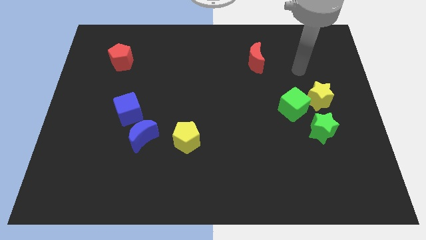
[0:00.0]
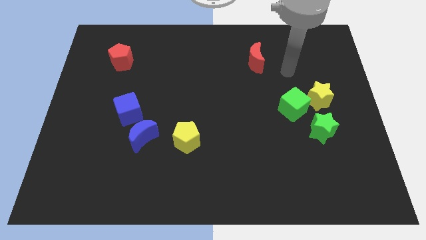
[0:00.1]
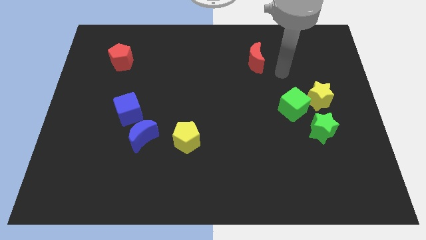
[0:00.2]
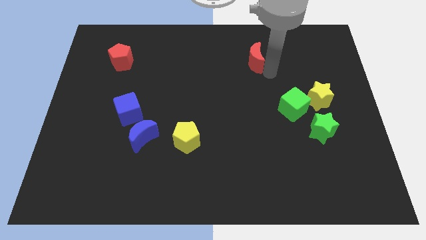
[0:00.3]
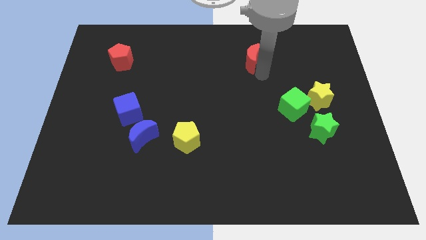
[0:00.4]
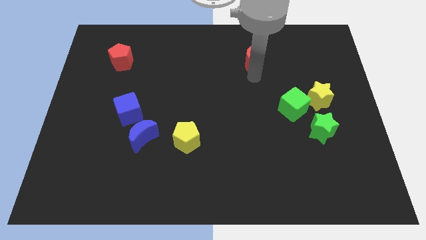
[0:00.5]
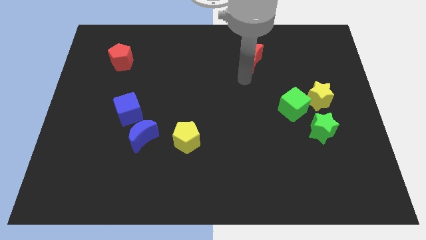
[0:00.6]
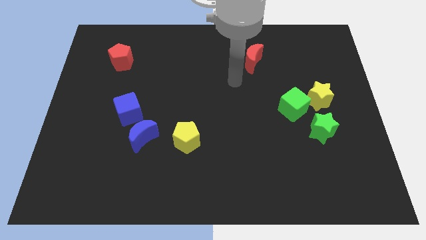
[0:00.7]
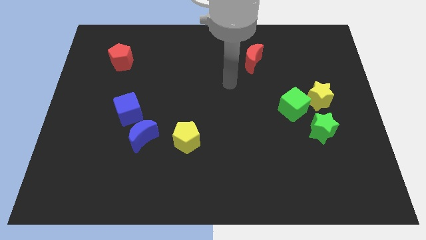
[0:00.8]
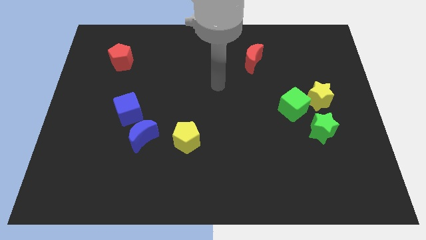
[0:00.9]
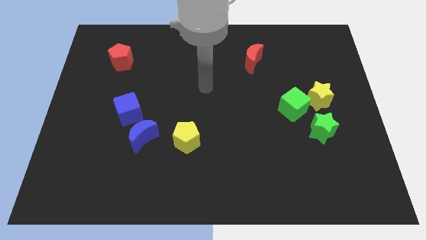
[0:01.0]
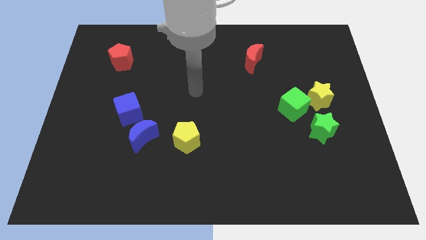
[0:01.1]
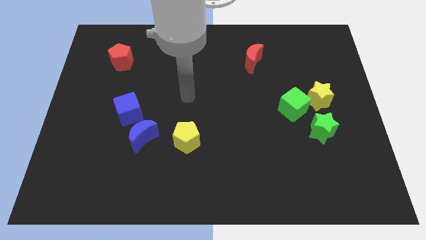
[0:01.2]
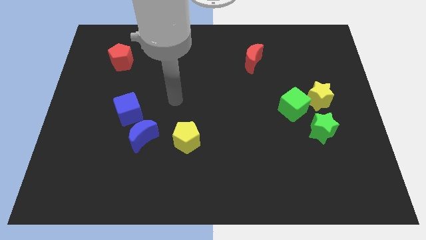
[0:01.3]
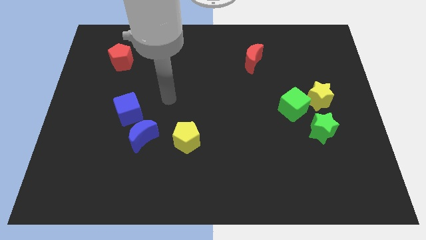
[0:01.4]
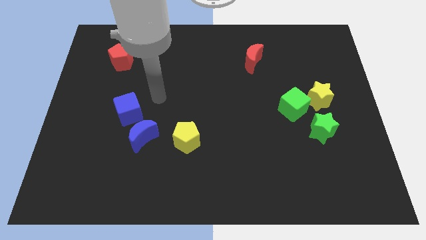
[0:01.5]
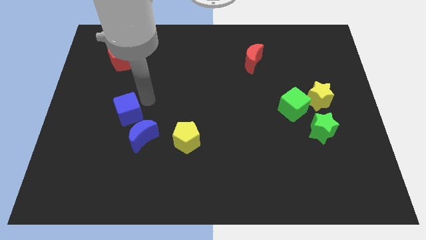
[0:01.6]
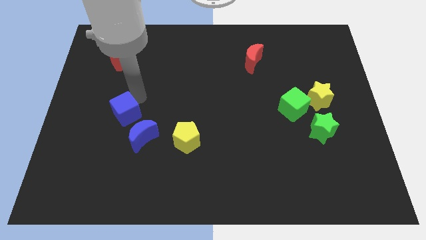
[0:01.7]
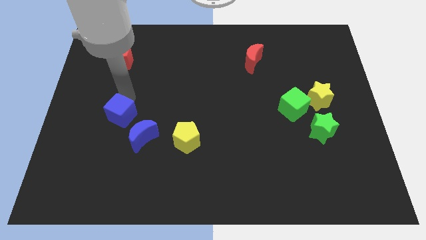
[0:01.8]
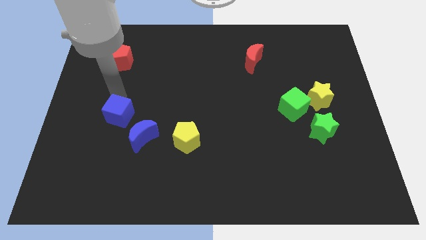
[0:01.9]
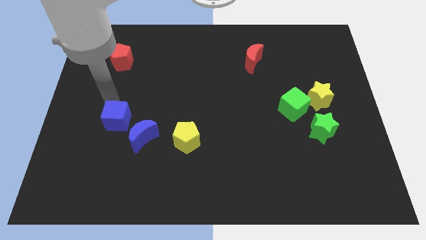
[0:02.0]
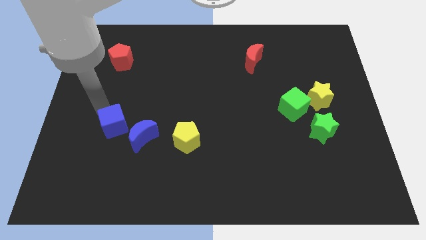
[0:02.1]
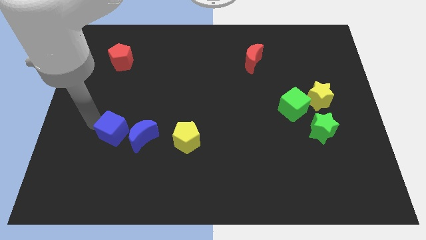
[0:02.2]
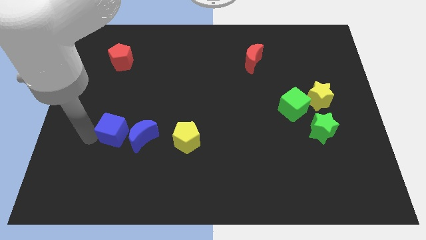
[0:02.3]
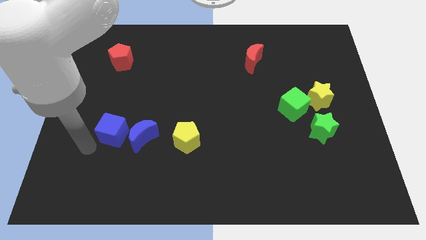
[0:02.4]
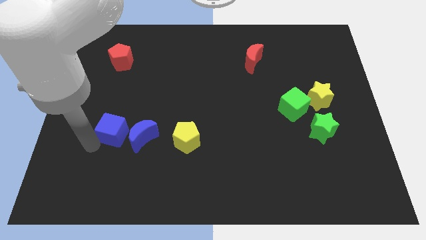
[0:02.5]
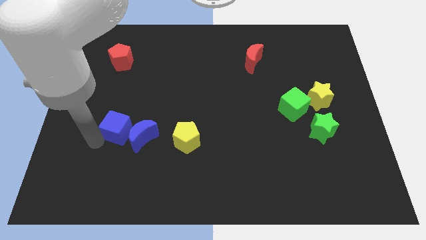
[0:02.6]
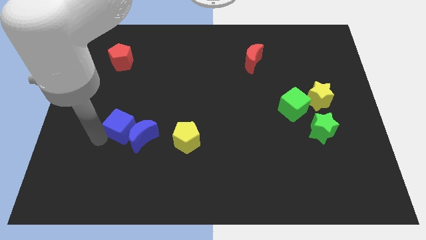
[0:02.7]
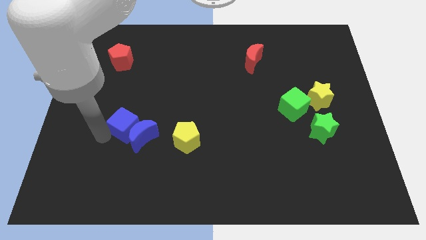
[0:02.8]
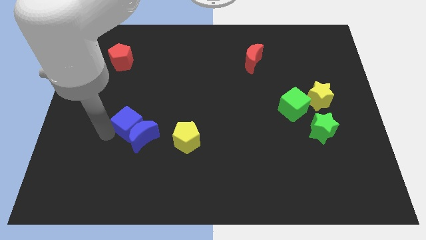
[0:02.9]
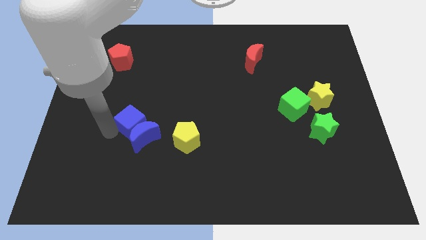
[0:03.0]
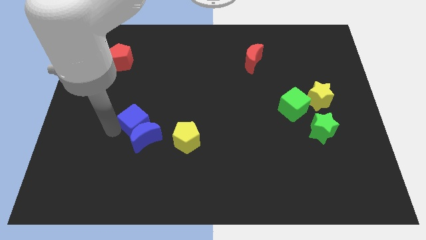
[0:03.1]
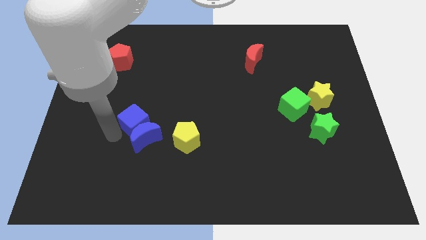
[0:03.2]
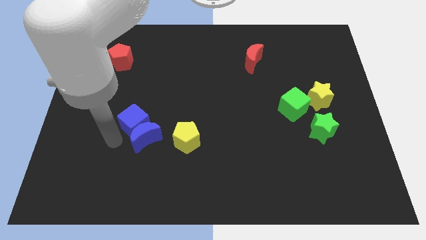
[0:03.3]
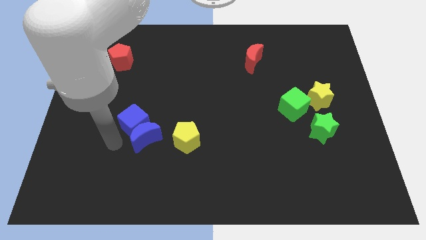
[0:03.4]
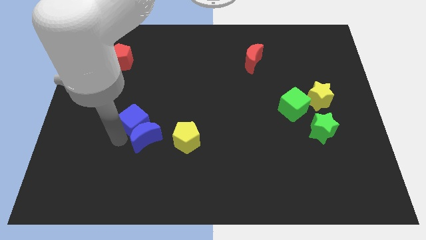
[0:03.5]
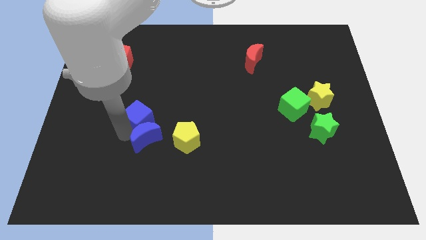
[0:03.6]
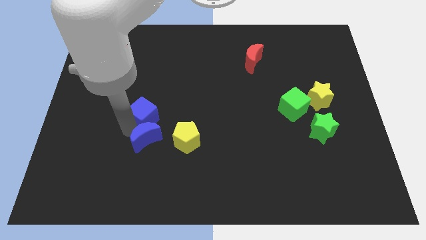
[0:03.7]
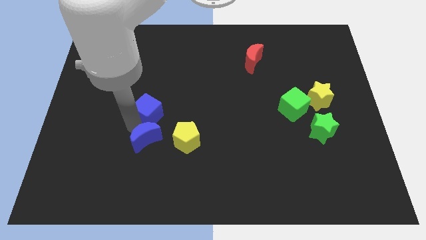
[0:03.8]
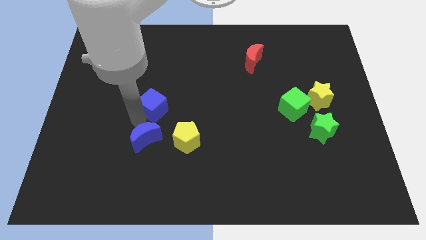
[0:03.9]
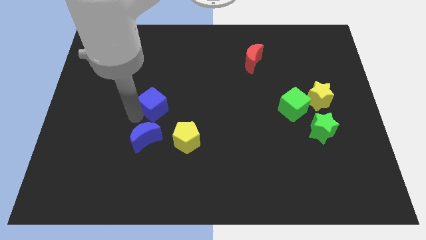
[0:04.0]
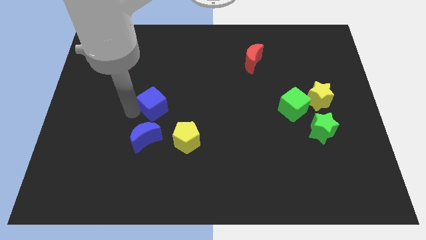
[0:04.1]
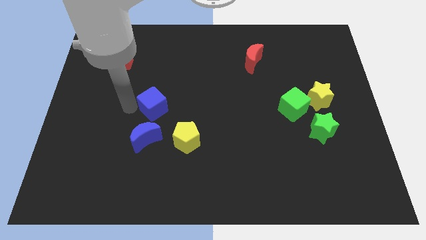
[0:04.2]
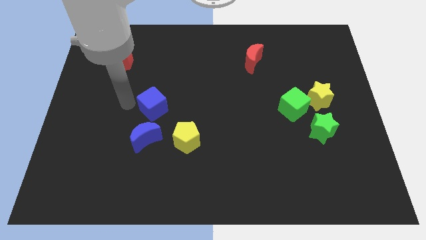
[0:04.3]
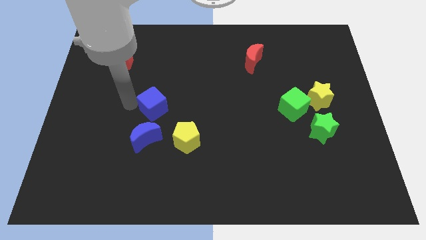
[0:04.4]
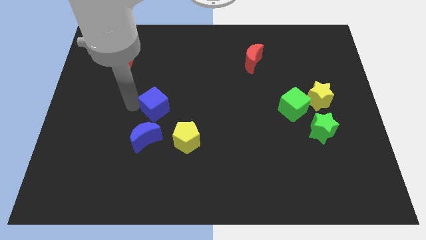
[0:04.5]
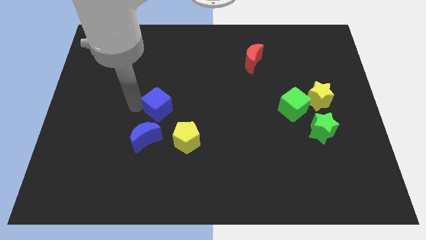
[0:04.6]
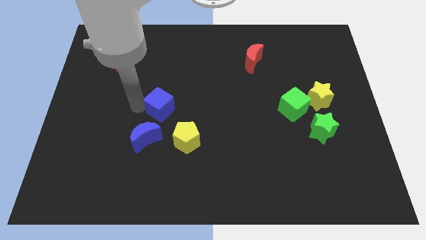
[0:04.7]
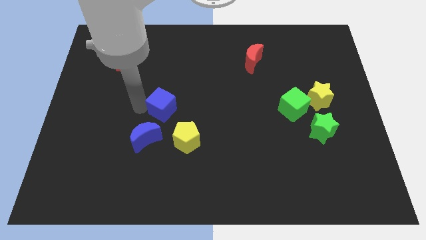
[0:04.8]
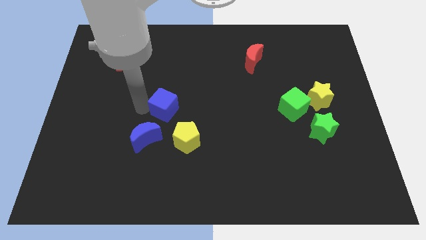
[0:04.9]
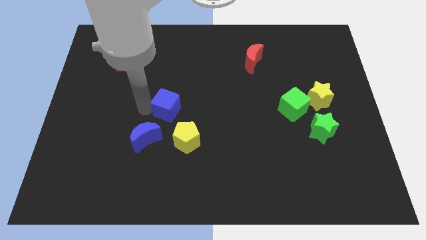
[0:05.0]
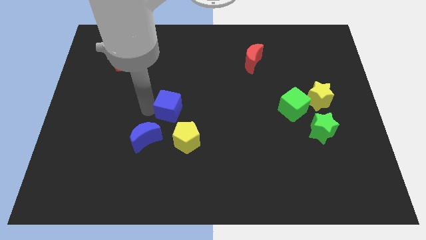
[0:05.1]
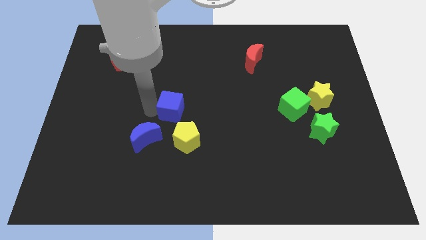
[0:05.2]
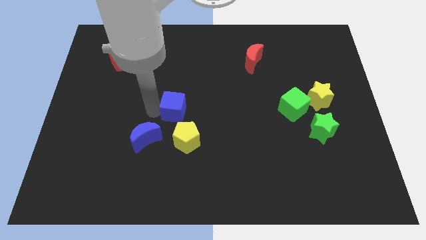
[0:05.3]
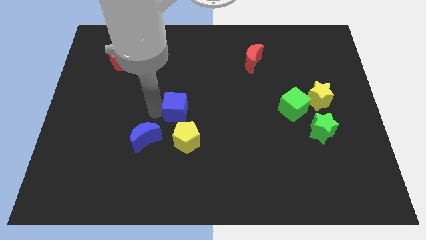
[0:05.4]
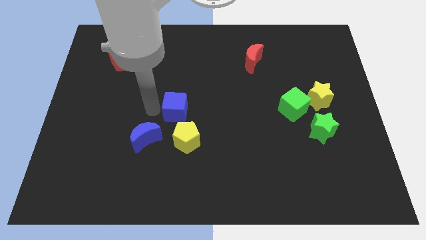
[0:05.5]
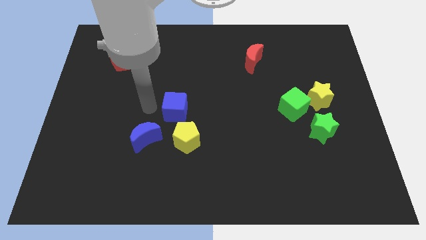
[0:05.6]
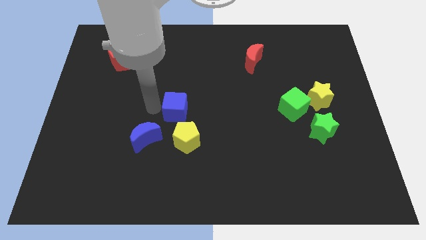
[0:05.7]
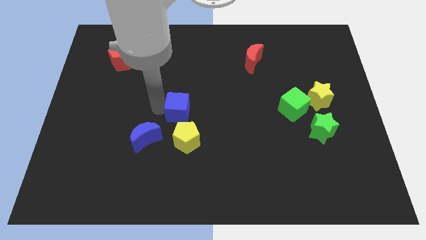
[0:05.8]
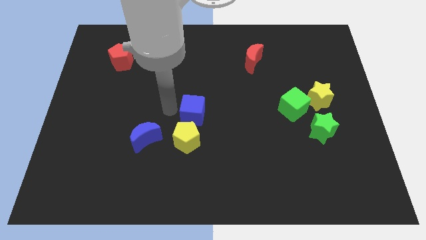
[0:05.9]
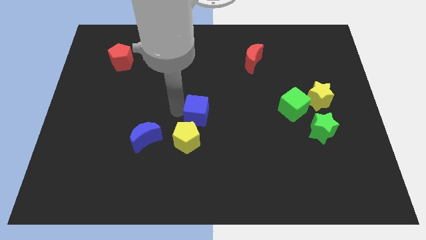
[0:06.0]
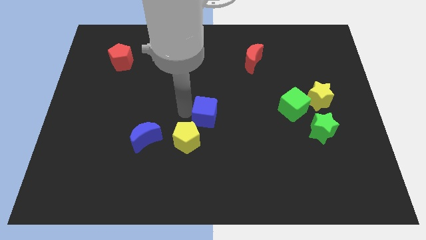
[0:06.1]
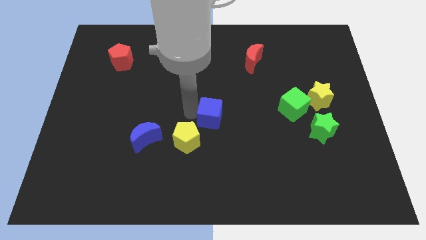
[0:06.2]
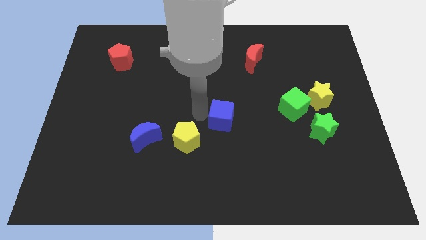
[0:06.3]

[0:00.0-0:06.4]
move the blue cube to the right

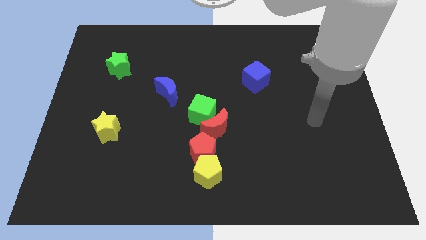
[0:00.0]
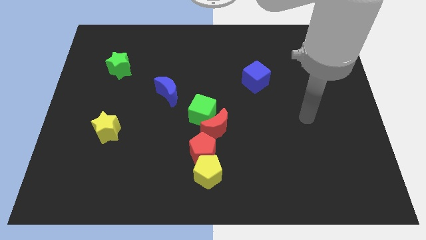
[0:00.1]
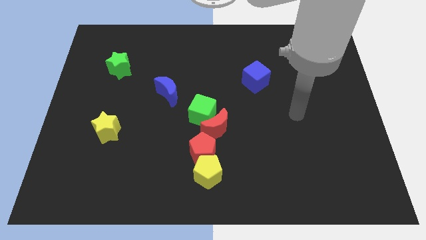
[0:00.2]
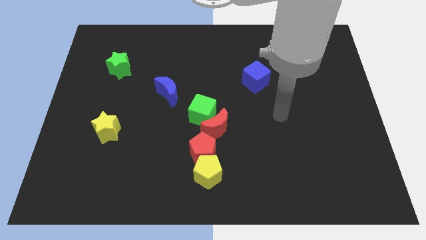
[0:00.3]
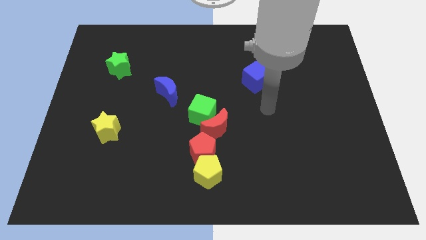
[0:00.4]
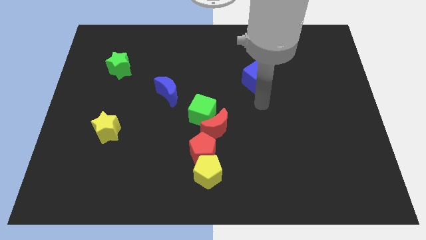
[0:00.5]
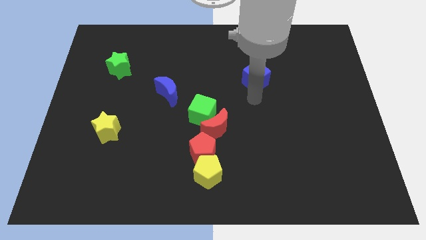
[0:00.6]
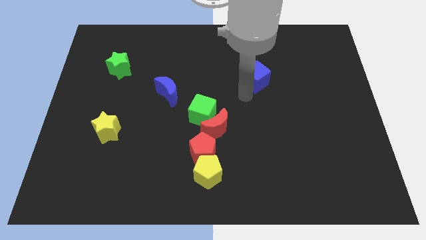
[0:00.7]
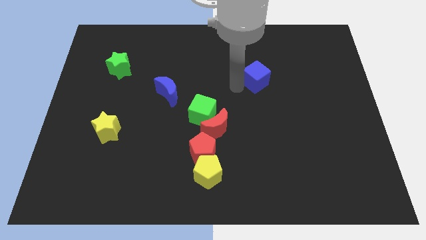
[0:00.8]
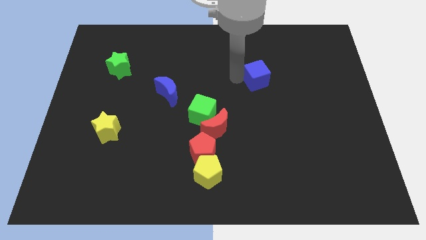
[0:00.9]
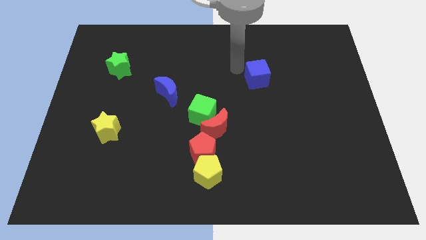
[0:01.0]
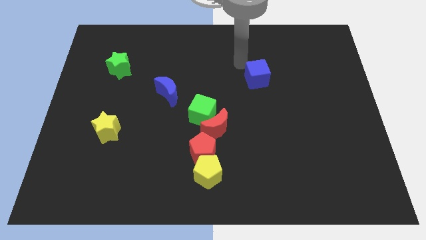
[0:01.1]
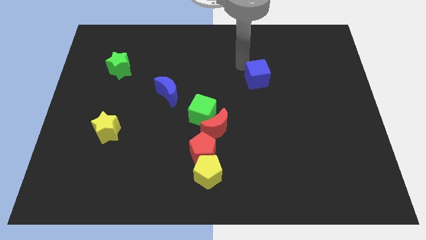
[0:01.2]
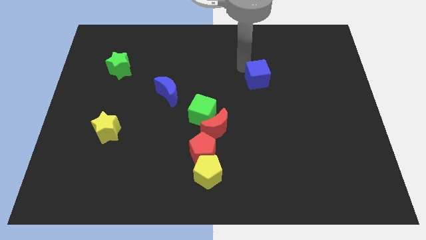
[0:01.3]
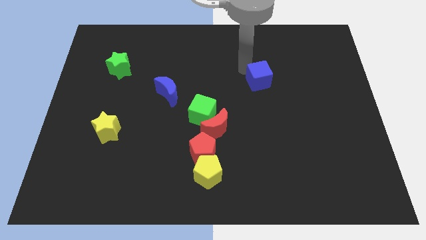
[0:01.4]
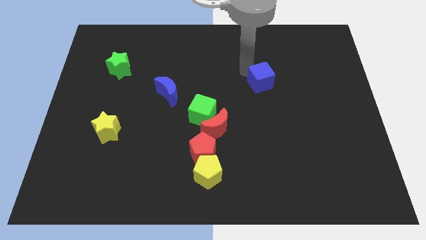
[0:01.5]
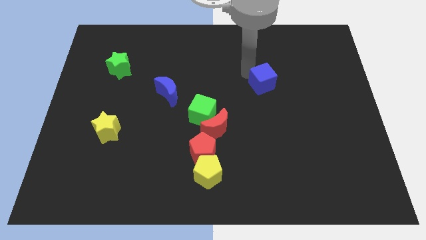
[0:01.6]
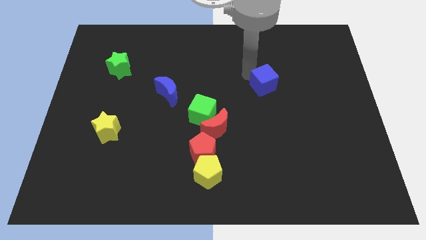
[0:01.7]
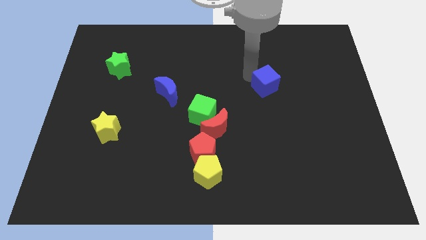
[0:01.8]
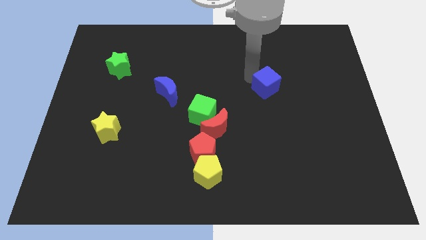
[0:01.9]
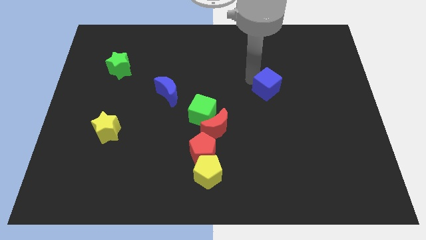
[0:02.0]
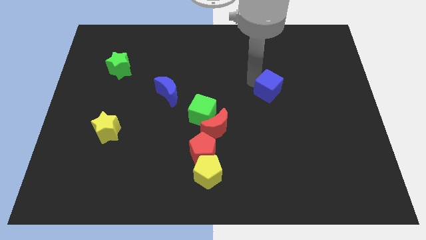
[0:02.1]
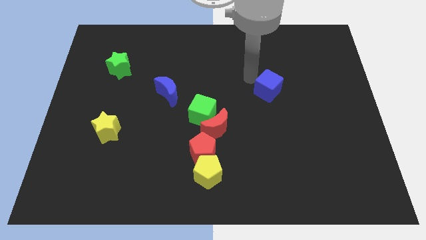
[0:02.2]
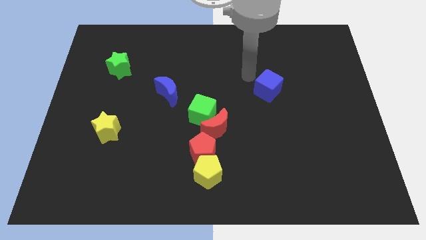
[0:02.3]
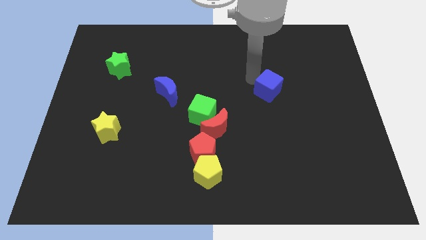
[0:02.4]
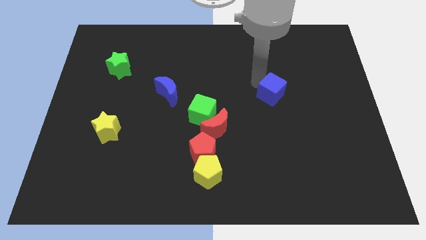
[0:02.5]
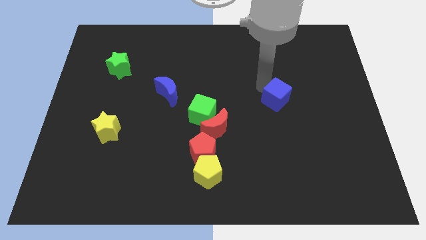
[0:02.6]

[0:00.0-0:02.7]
push the blue cube somewhat down and then right
